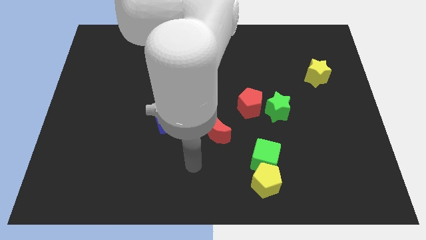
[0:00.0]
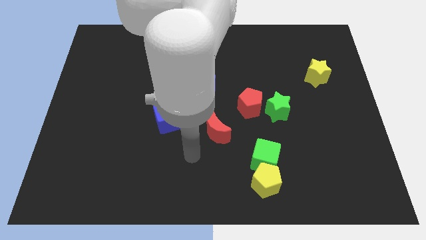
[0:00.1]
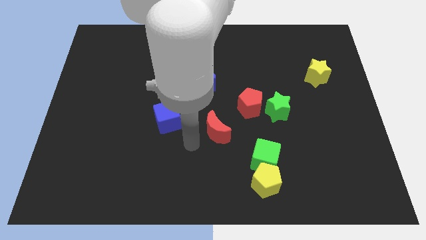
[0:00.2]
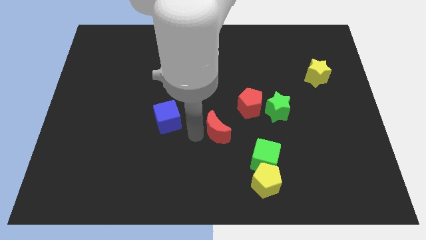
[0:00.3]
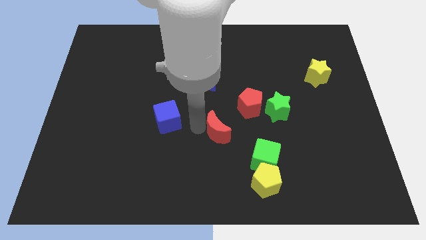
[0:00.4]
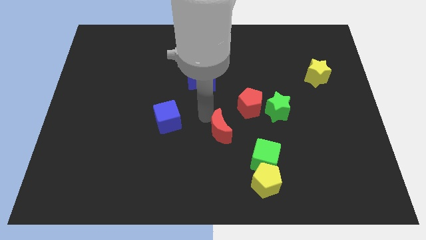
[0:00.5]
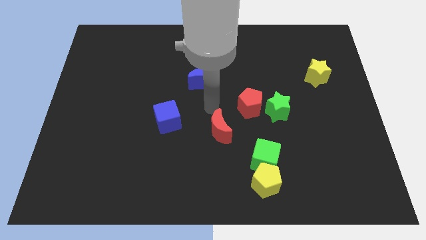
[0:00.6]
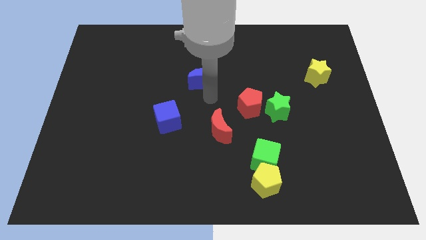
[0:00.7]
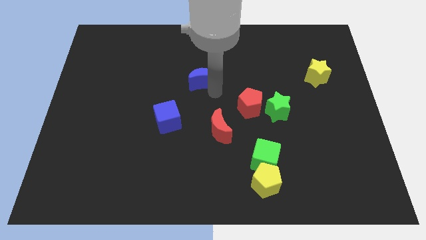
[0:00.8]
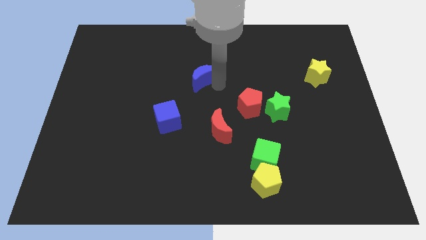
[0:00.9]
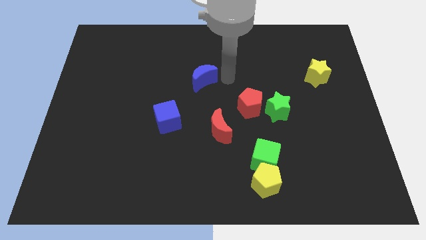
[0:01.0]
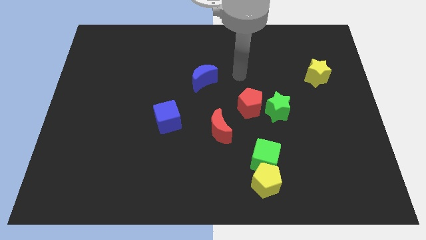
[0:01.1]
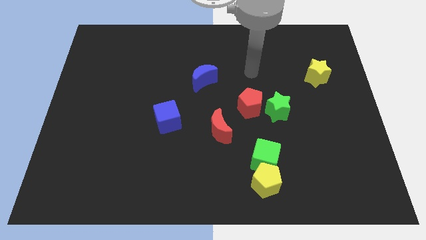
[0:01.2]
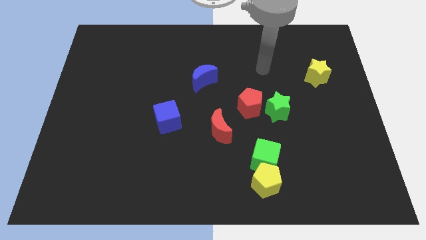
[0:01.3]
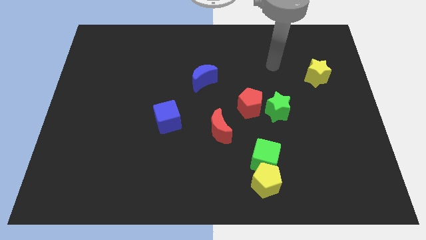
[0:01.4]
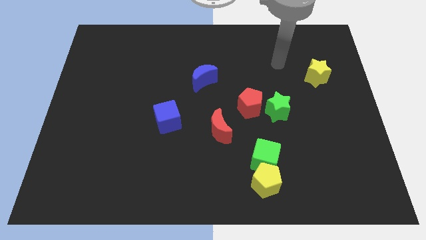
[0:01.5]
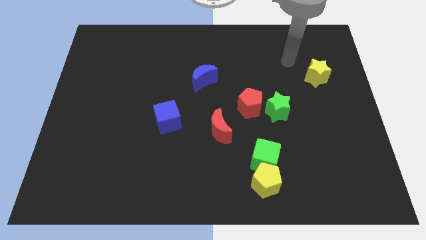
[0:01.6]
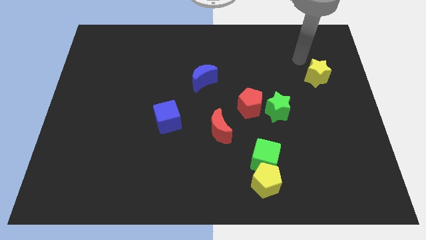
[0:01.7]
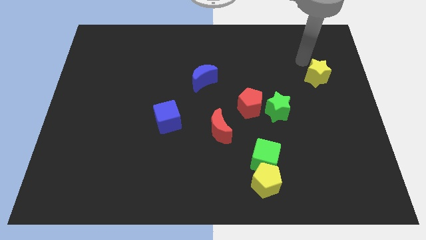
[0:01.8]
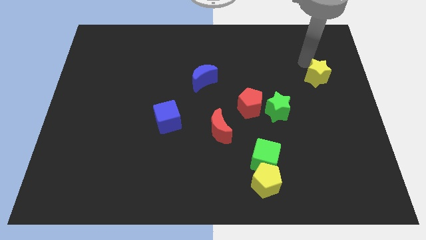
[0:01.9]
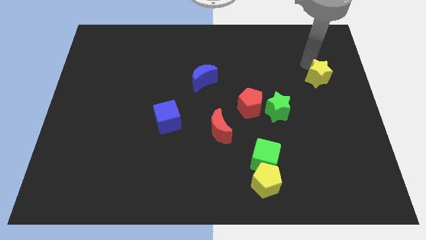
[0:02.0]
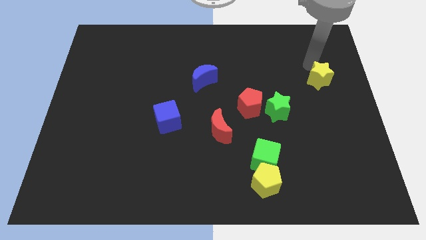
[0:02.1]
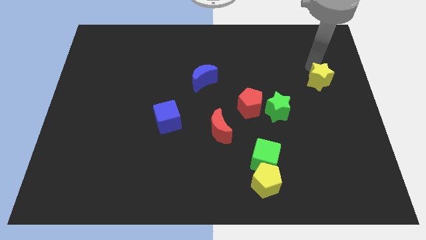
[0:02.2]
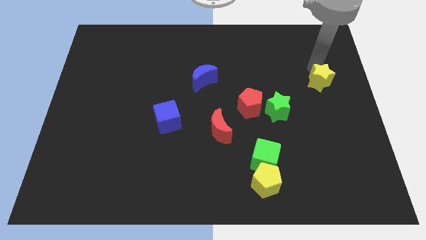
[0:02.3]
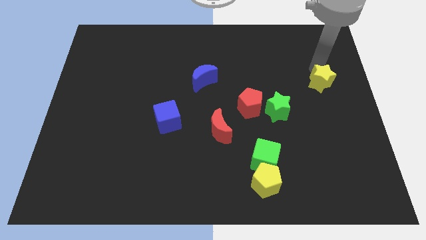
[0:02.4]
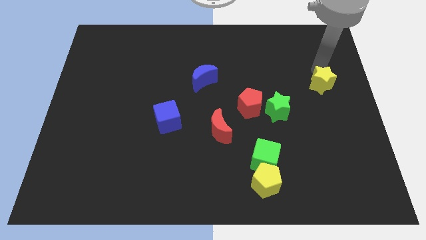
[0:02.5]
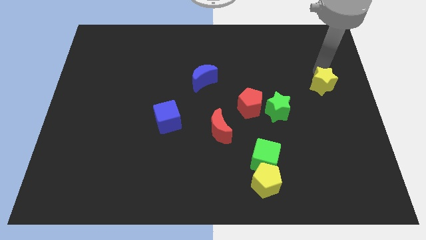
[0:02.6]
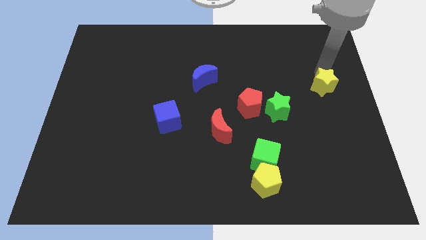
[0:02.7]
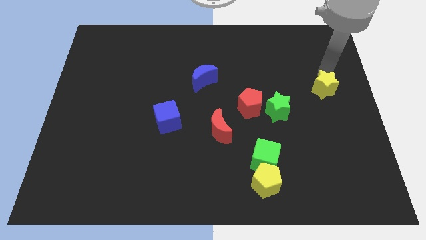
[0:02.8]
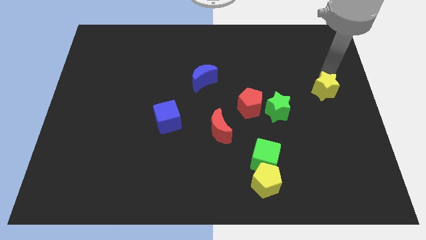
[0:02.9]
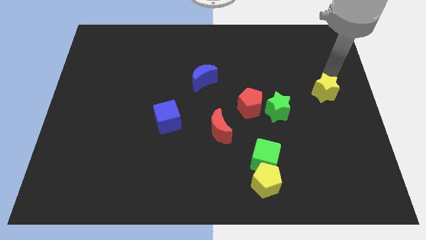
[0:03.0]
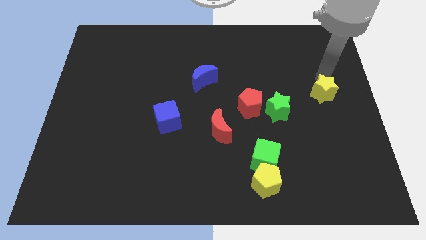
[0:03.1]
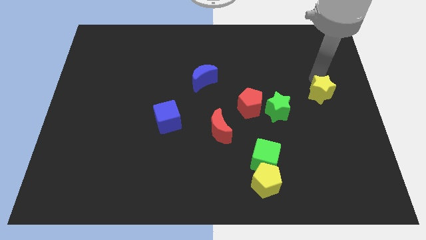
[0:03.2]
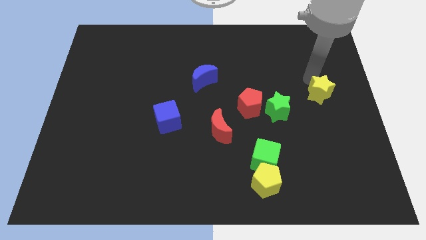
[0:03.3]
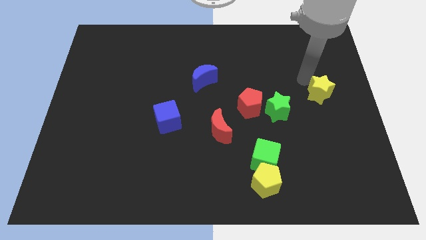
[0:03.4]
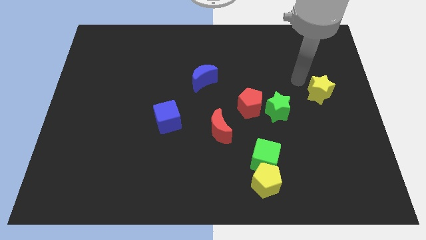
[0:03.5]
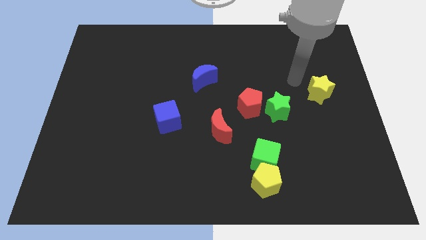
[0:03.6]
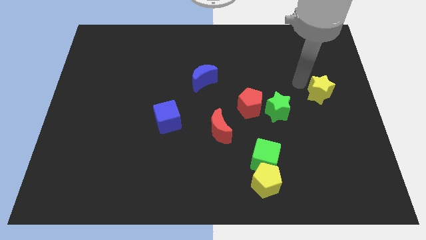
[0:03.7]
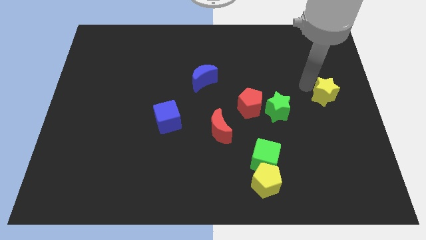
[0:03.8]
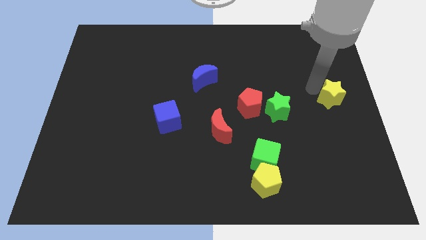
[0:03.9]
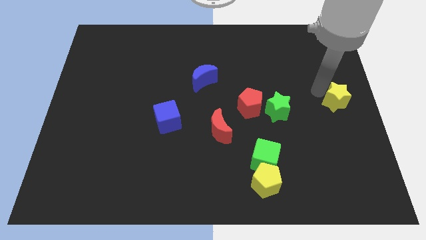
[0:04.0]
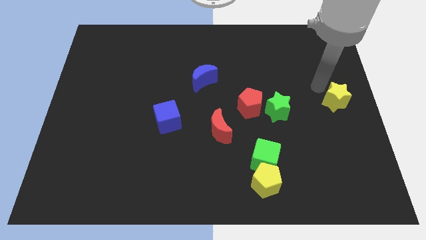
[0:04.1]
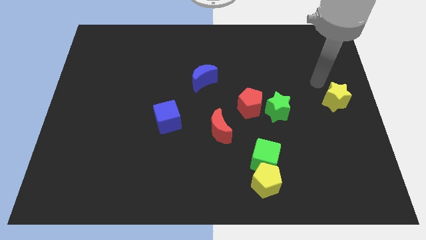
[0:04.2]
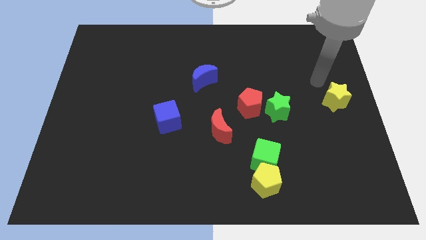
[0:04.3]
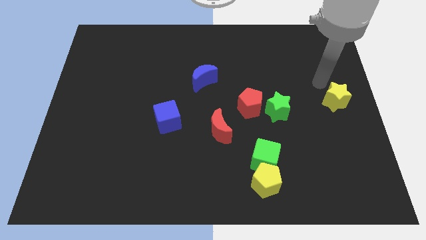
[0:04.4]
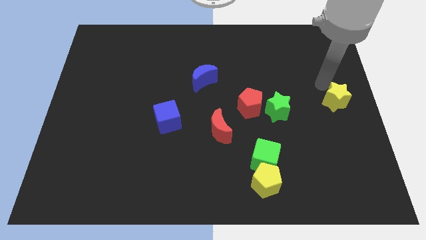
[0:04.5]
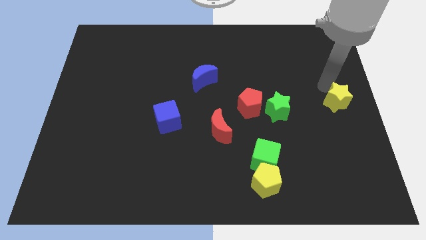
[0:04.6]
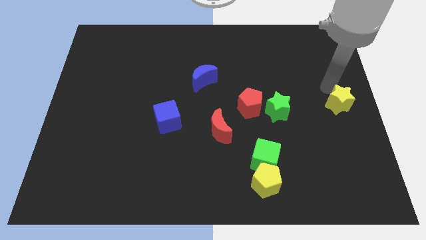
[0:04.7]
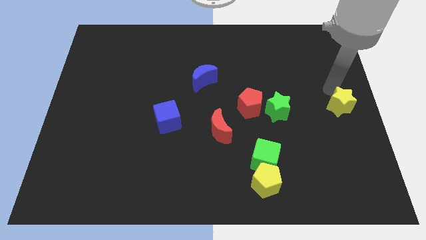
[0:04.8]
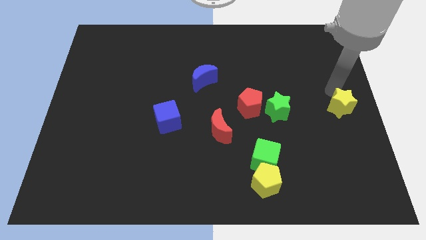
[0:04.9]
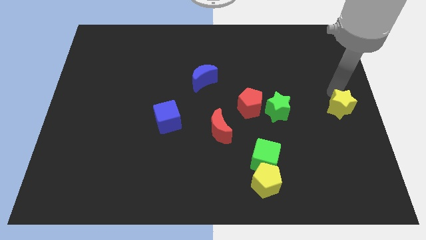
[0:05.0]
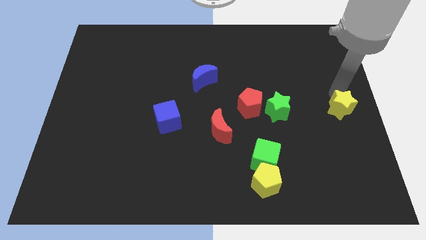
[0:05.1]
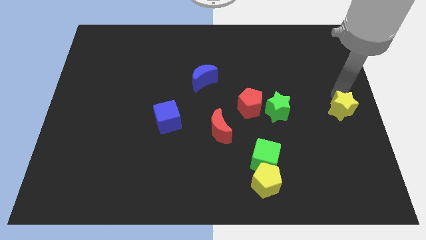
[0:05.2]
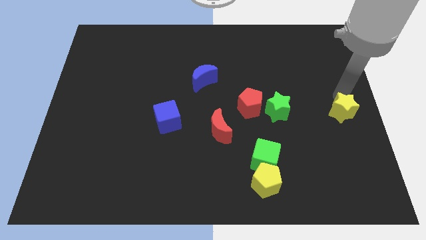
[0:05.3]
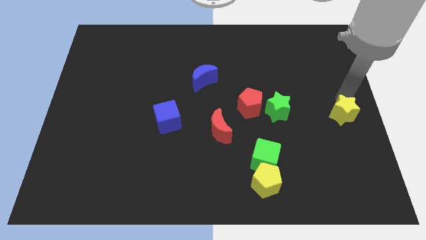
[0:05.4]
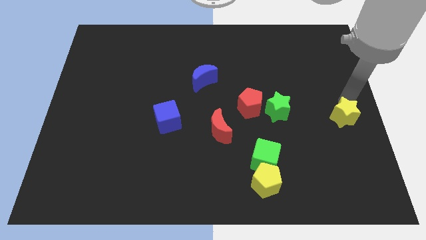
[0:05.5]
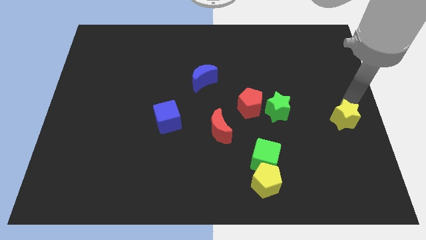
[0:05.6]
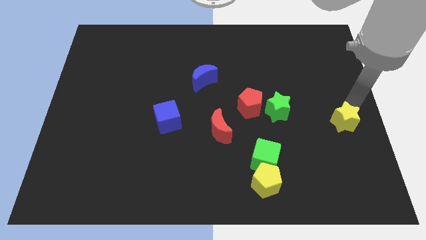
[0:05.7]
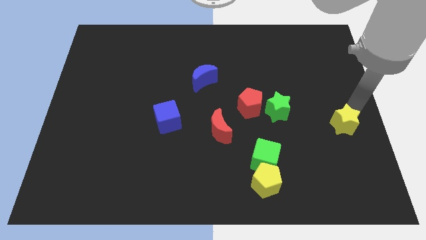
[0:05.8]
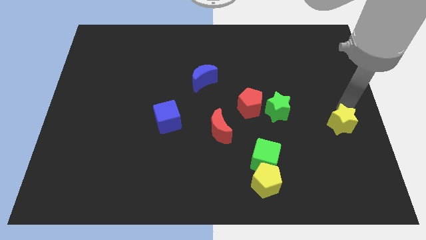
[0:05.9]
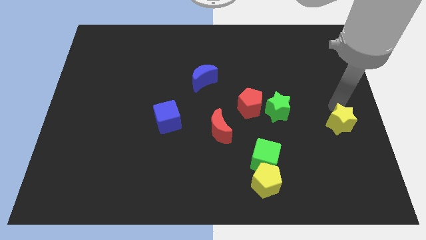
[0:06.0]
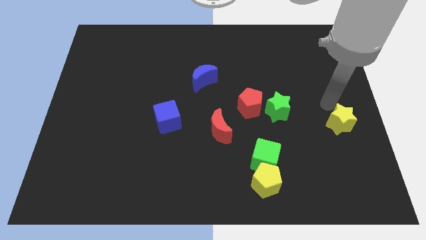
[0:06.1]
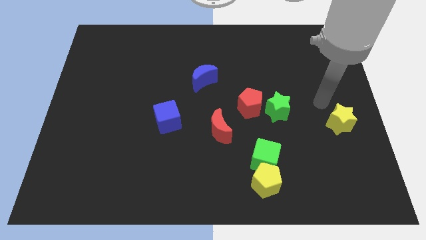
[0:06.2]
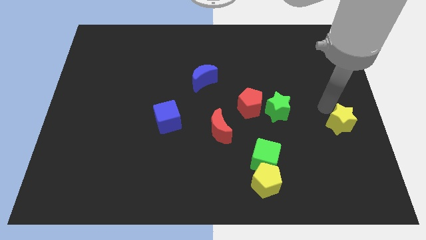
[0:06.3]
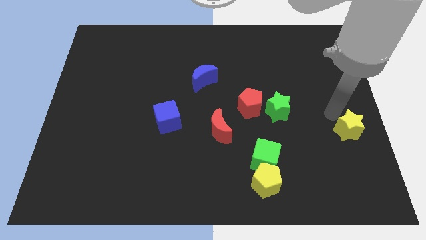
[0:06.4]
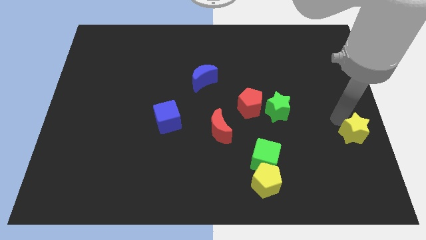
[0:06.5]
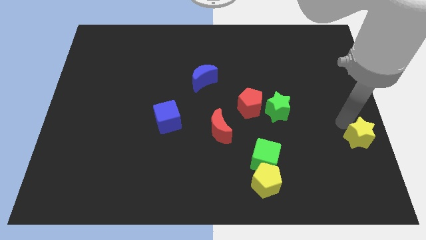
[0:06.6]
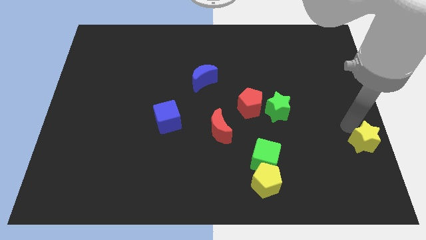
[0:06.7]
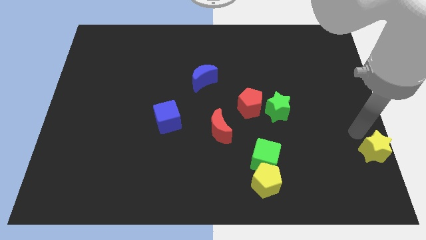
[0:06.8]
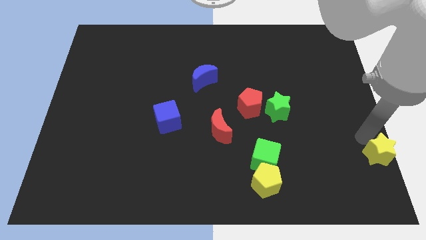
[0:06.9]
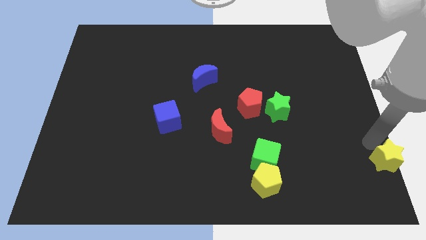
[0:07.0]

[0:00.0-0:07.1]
slide the yellow star to the bottom right of the board
